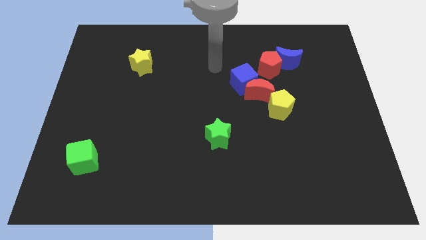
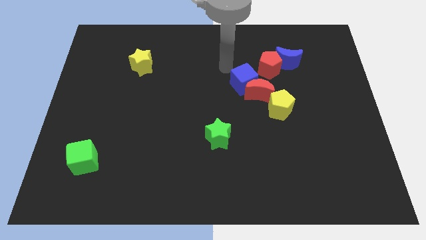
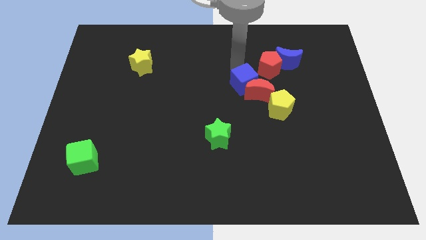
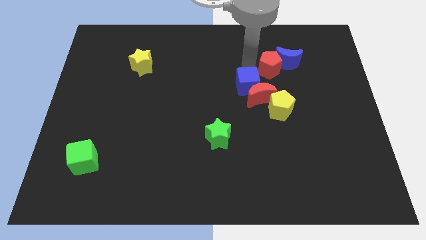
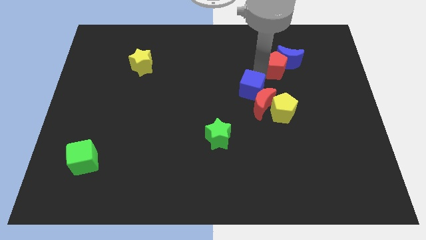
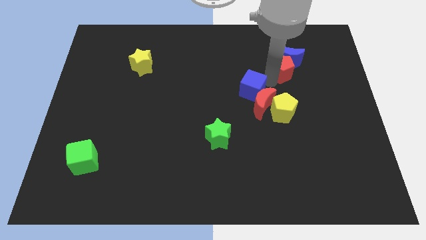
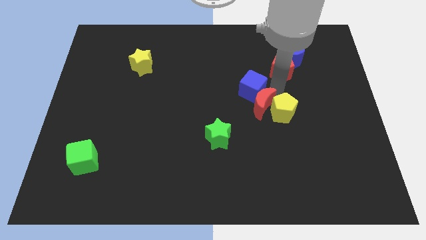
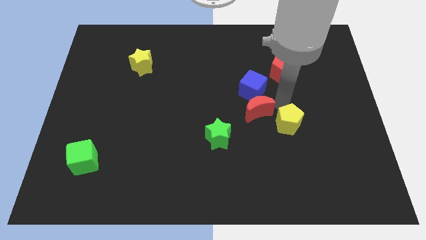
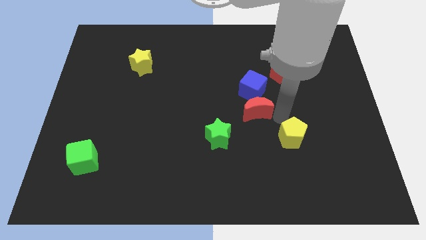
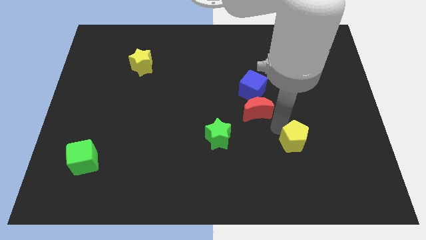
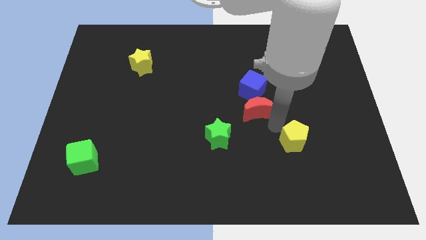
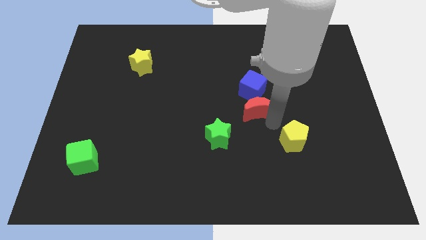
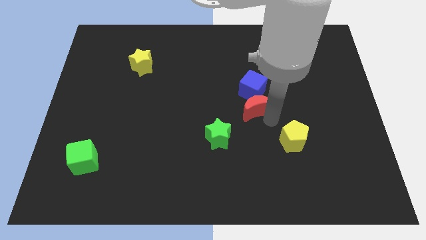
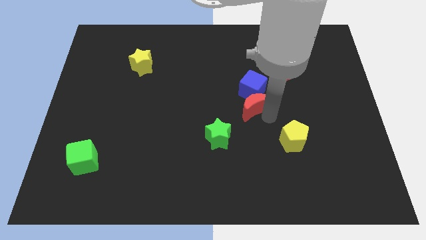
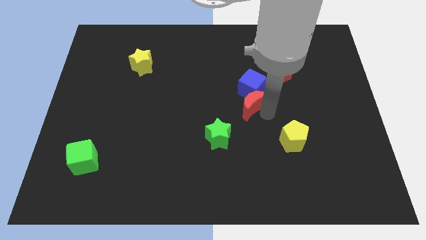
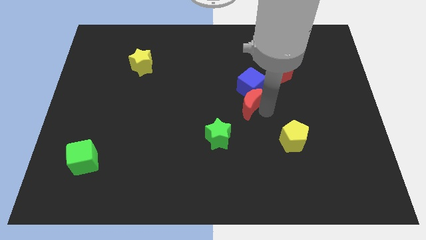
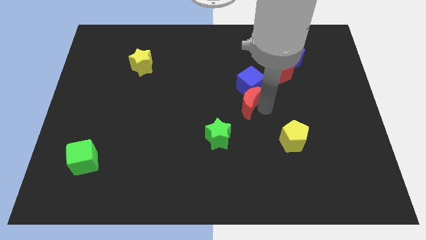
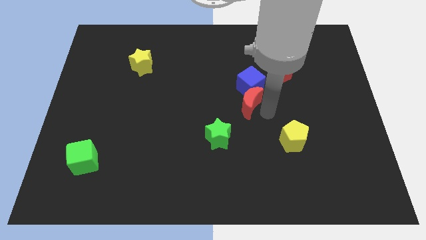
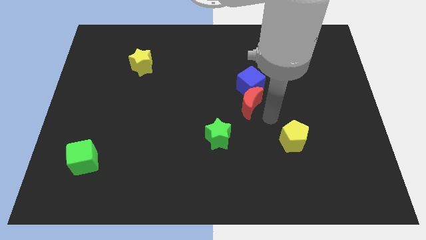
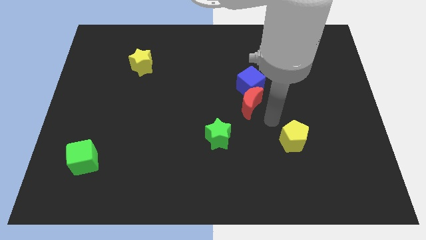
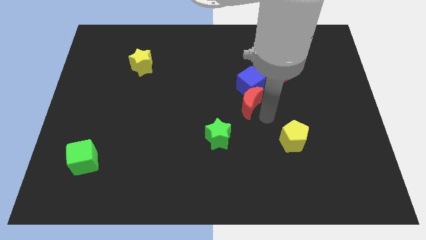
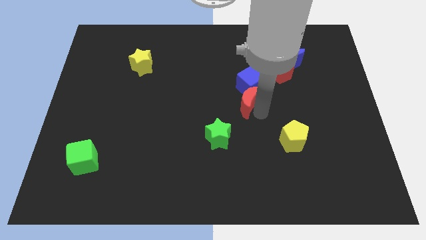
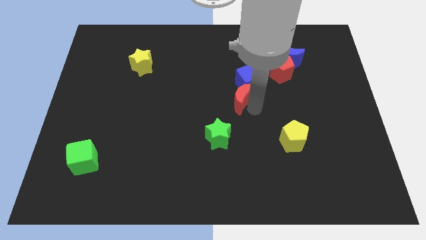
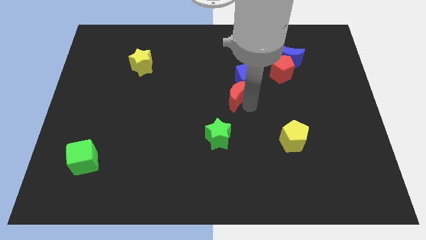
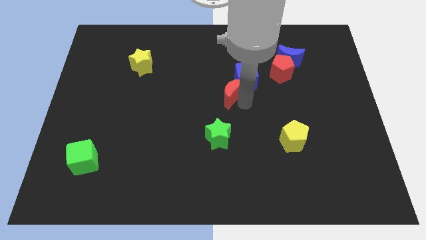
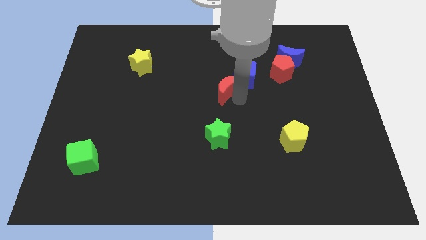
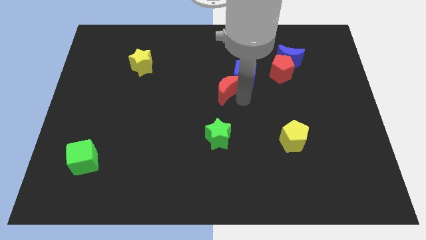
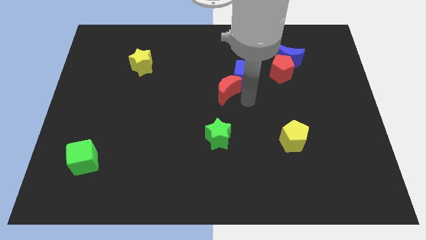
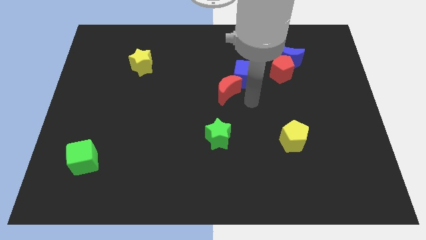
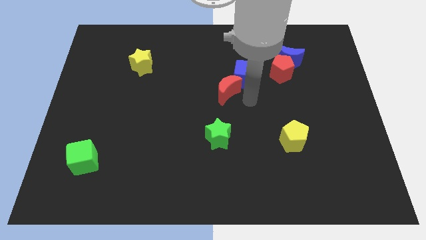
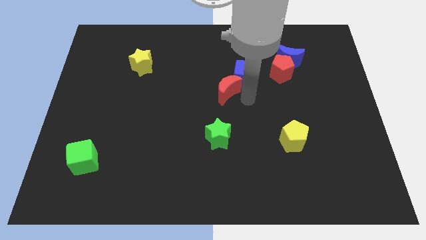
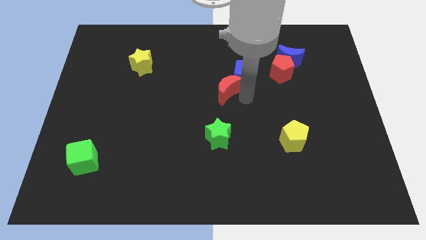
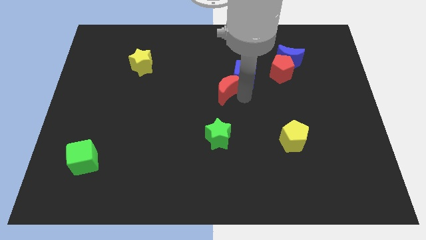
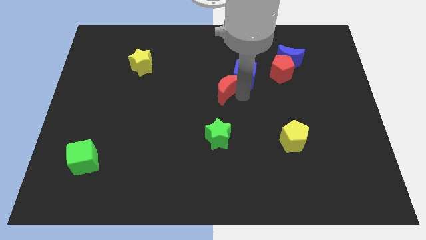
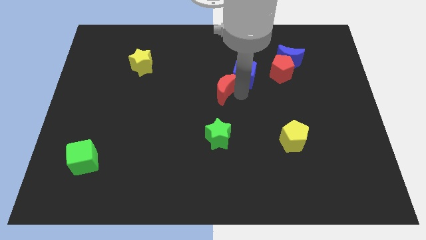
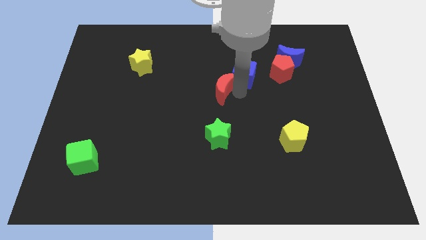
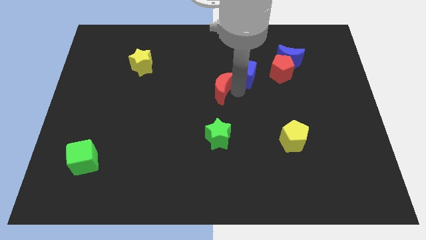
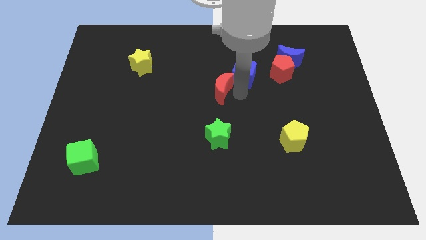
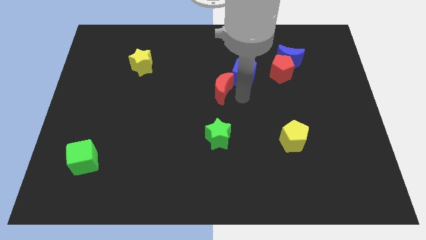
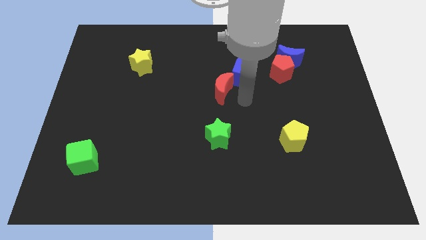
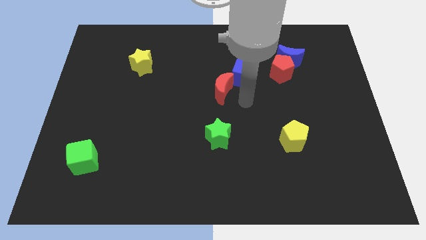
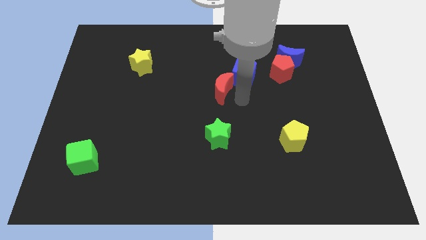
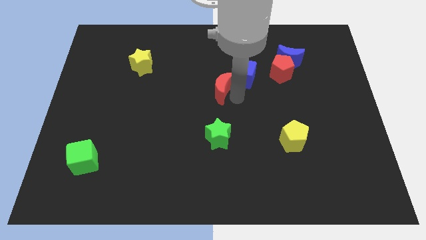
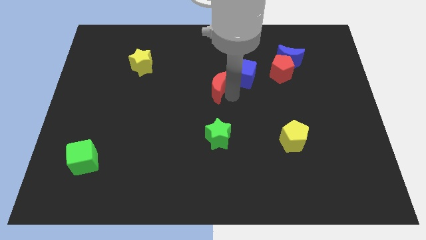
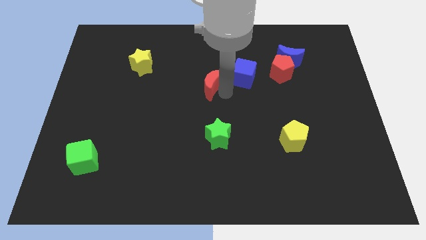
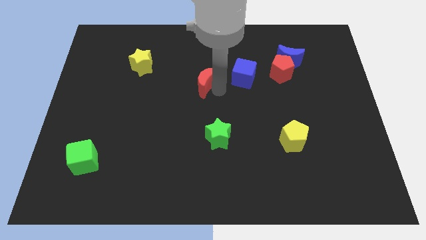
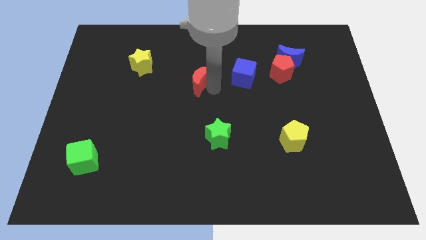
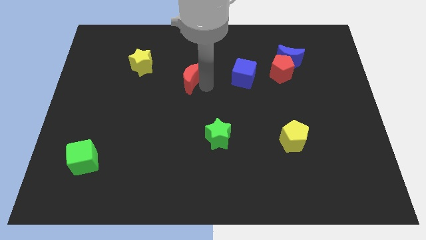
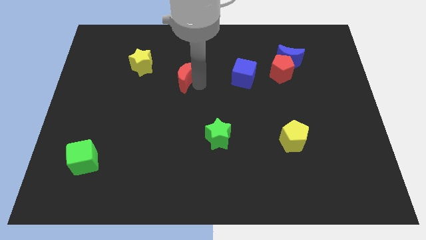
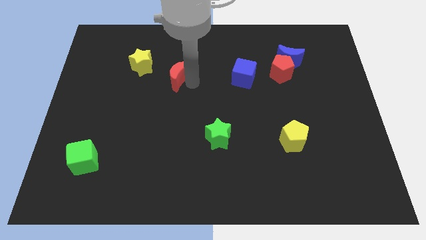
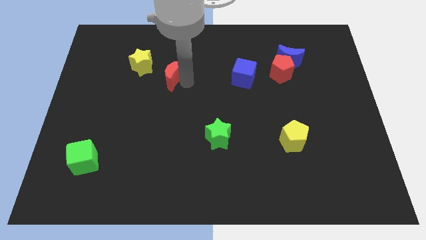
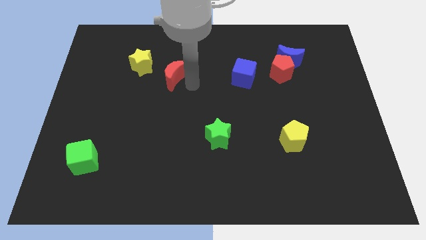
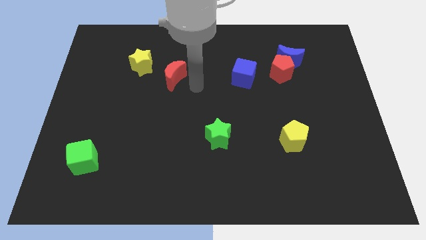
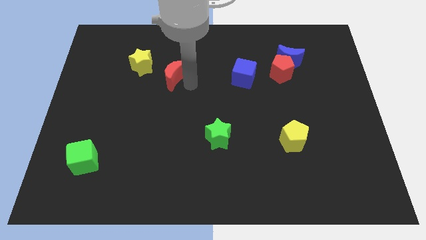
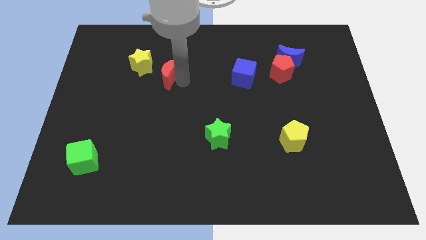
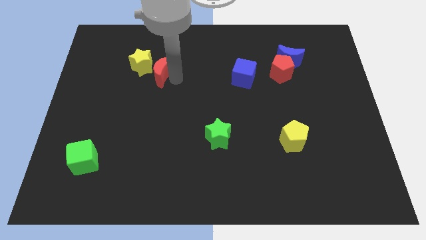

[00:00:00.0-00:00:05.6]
slide the red moon close to the yellow star

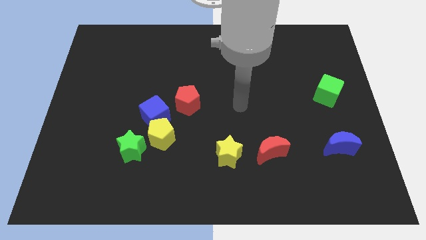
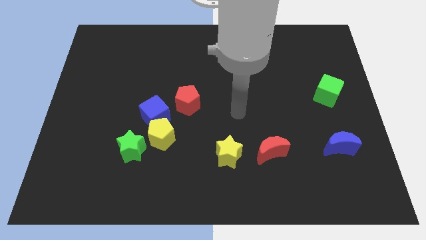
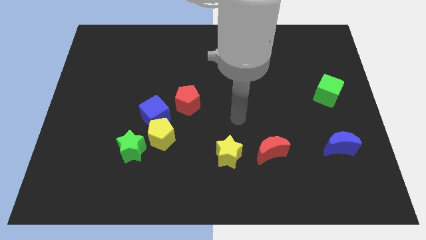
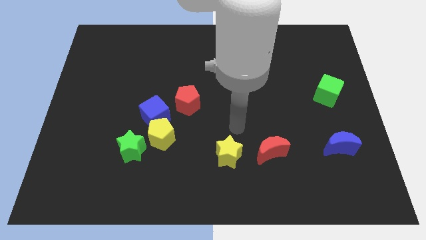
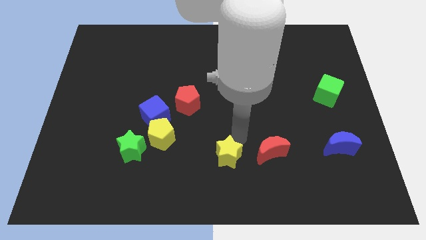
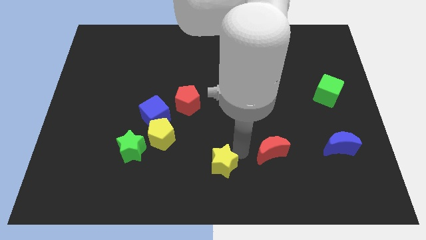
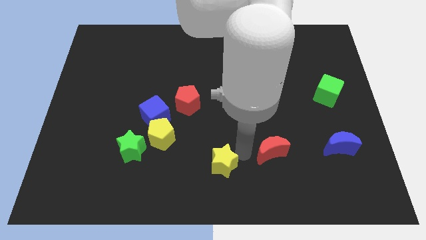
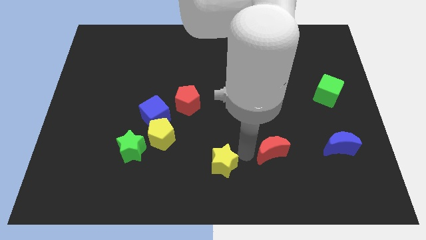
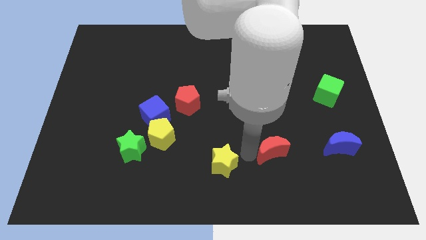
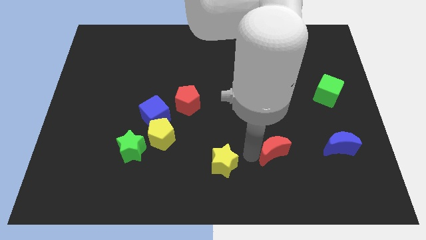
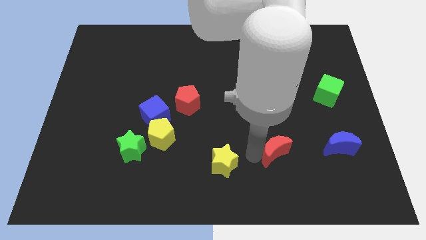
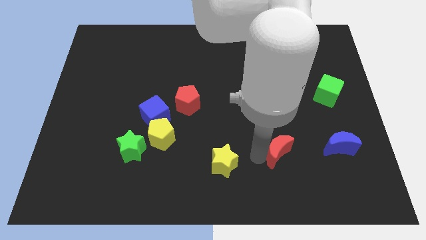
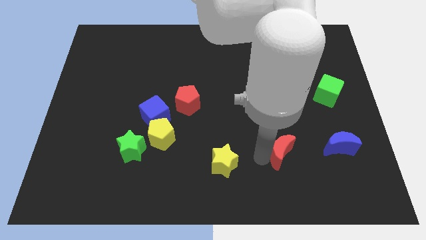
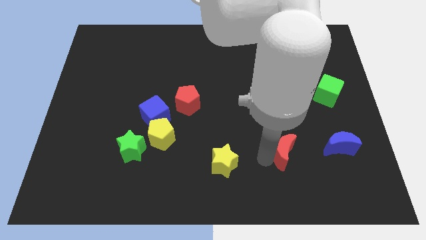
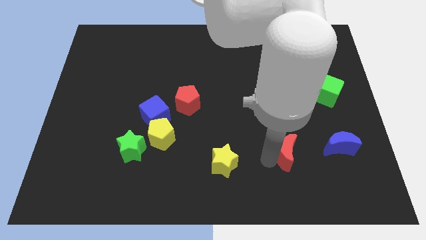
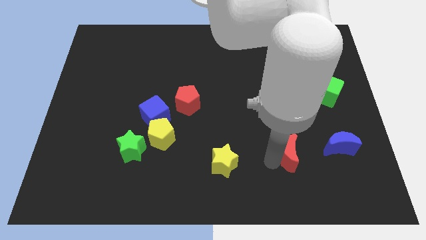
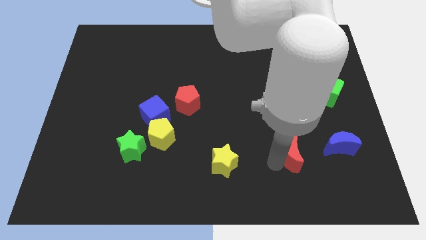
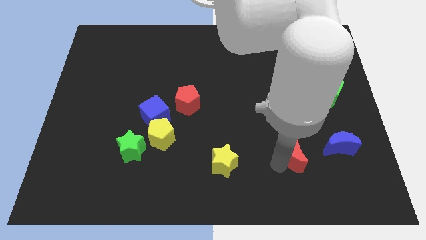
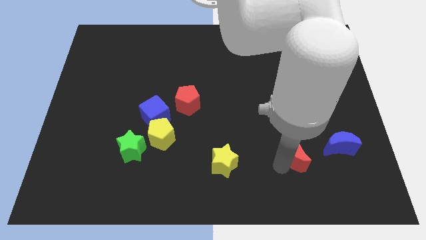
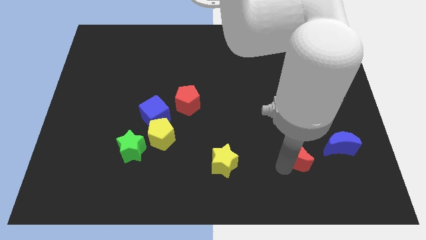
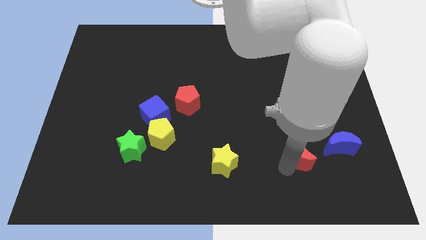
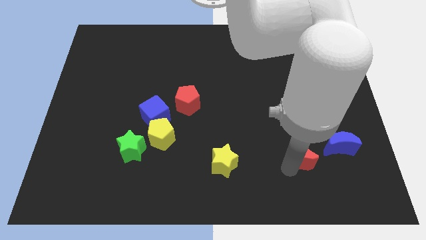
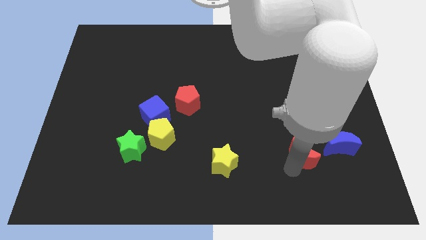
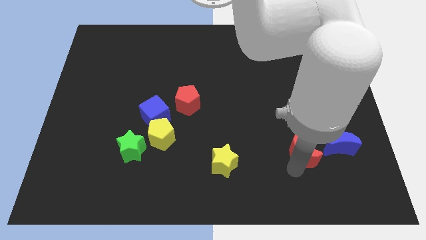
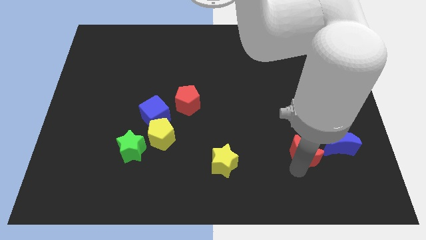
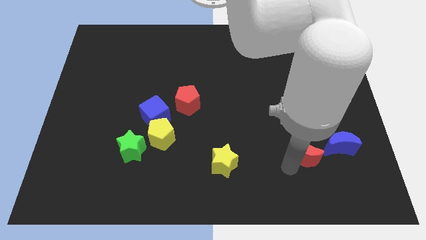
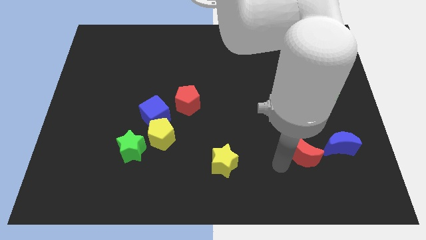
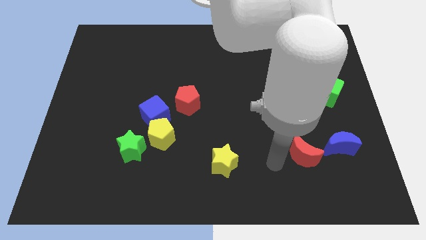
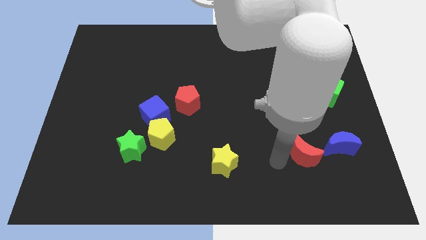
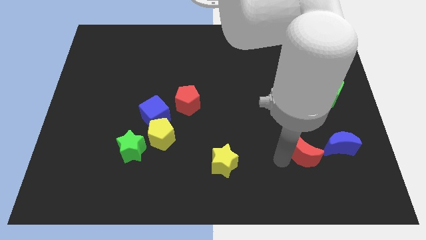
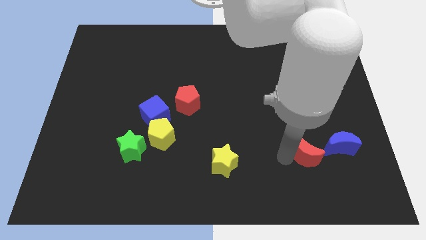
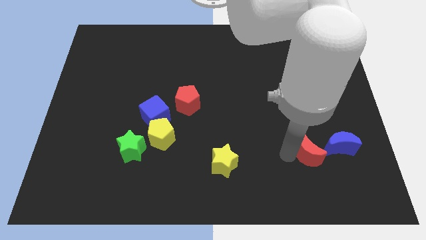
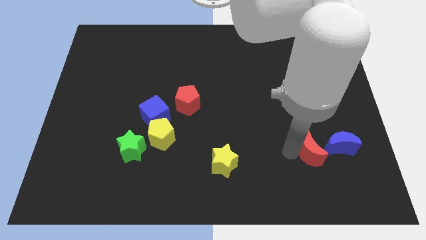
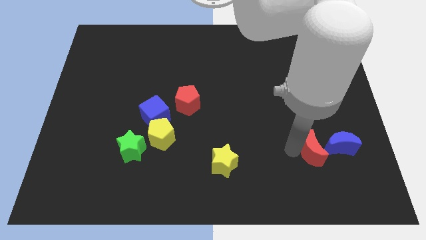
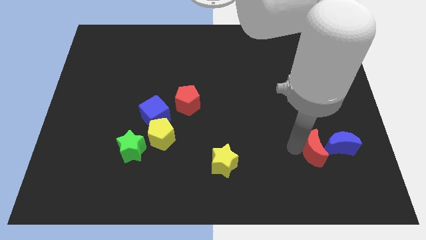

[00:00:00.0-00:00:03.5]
move the red moon close to the blue moon
